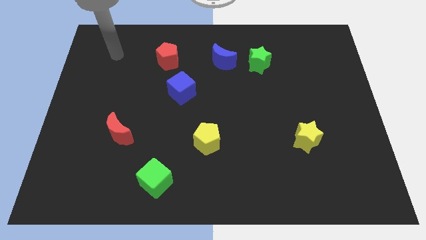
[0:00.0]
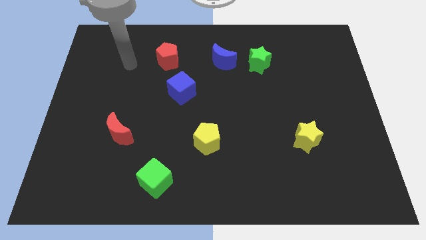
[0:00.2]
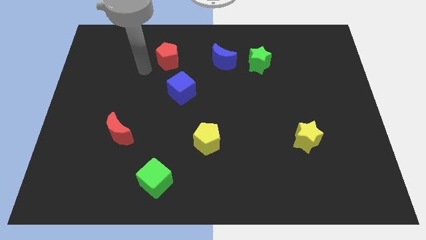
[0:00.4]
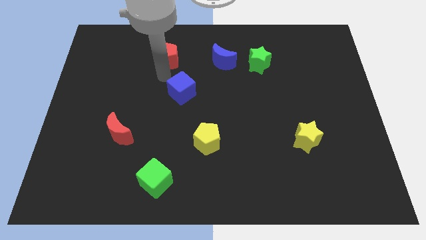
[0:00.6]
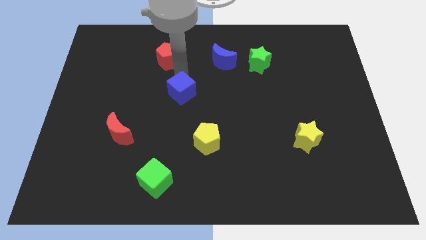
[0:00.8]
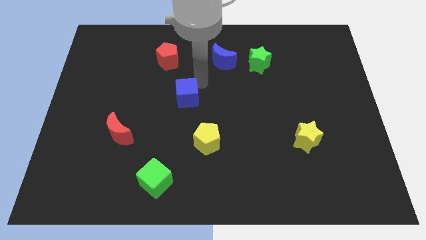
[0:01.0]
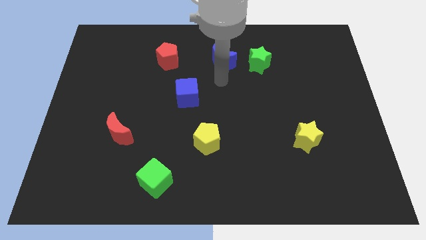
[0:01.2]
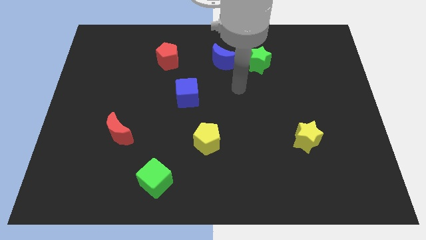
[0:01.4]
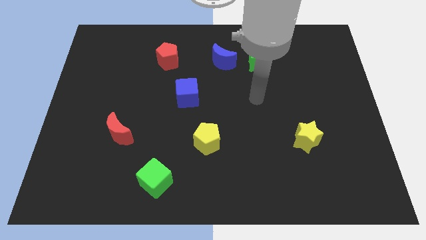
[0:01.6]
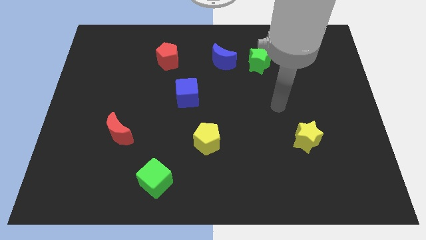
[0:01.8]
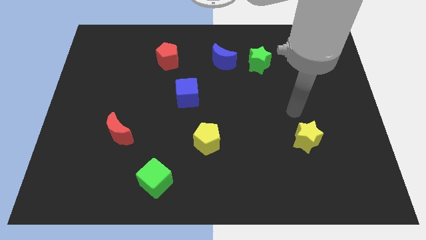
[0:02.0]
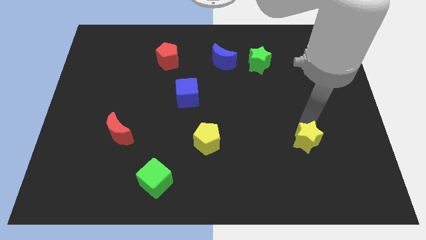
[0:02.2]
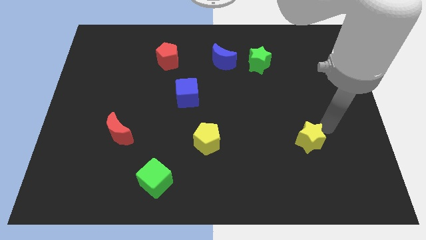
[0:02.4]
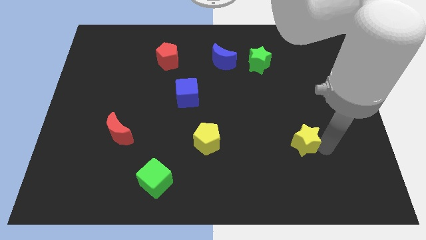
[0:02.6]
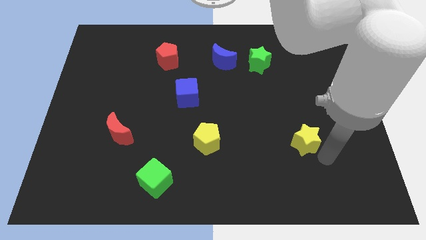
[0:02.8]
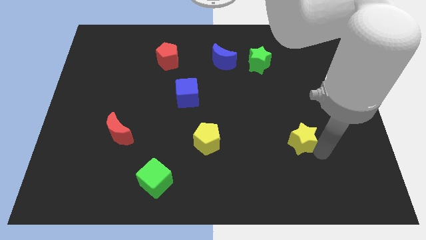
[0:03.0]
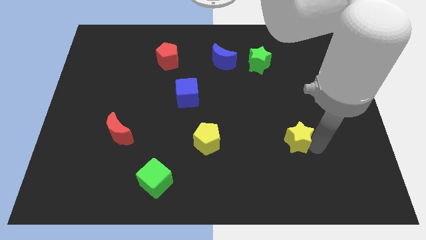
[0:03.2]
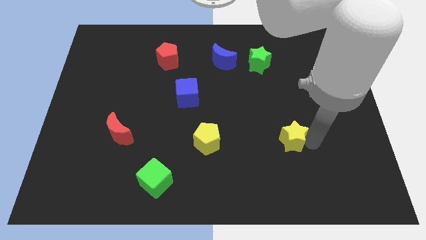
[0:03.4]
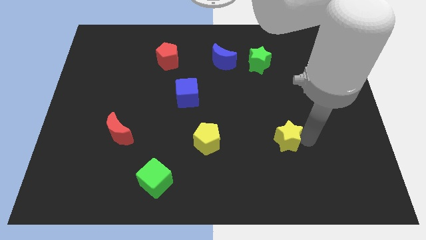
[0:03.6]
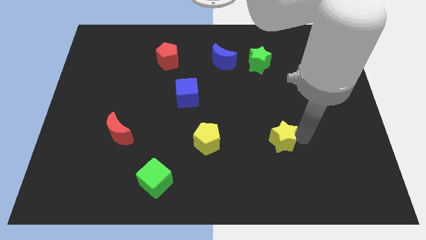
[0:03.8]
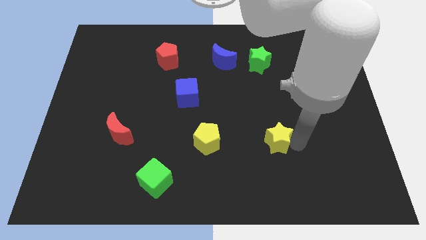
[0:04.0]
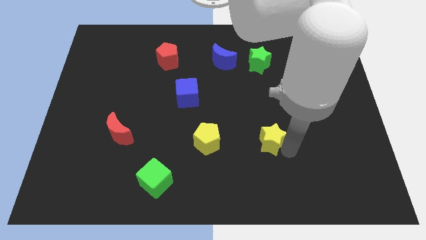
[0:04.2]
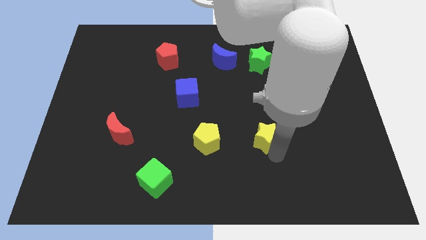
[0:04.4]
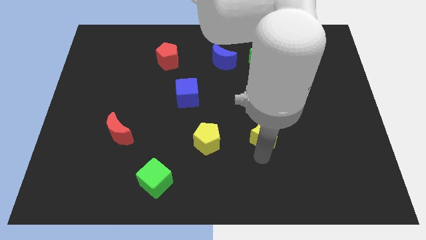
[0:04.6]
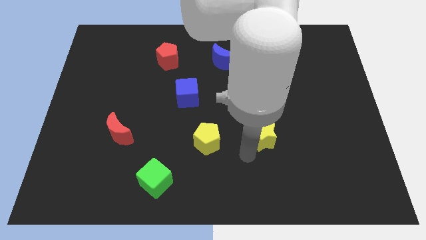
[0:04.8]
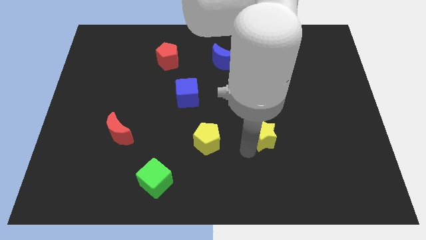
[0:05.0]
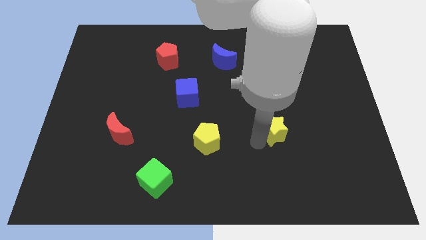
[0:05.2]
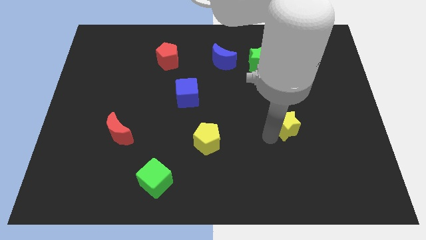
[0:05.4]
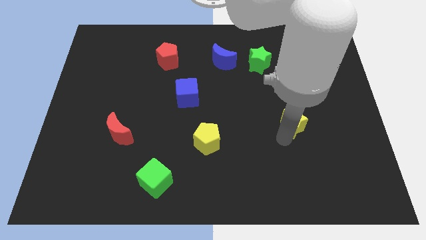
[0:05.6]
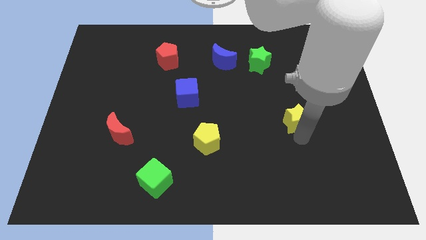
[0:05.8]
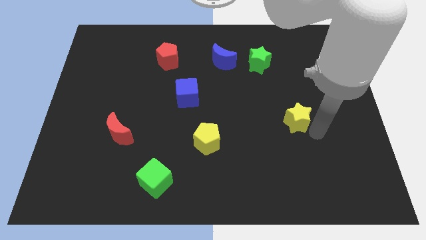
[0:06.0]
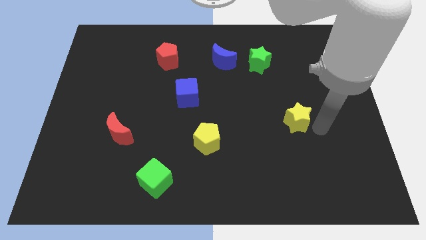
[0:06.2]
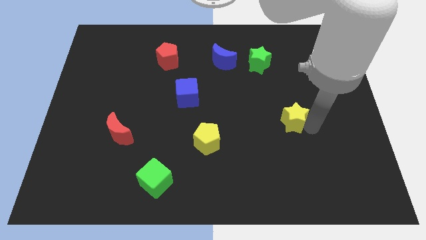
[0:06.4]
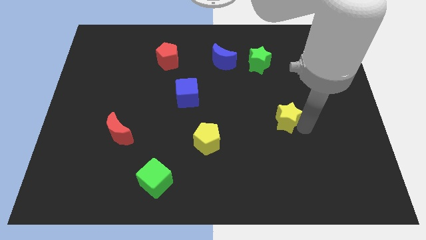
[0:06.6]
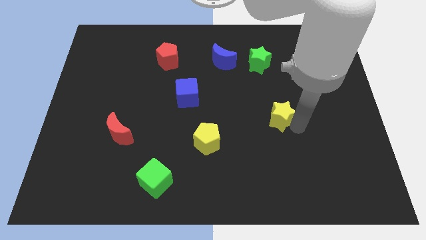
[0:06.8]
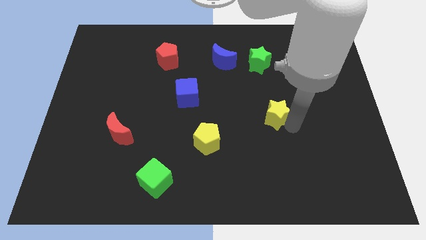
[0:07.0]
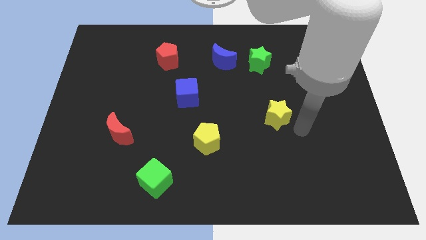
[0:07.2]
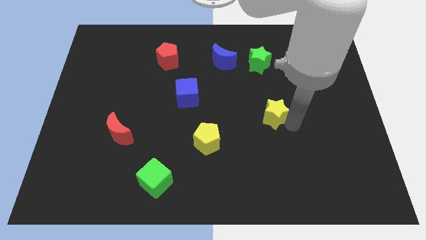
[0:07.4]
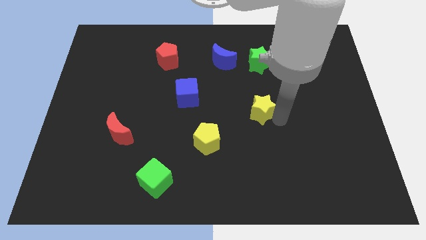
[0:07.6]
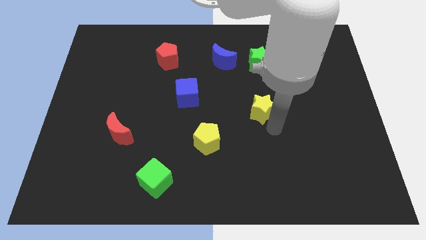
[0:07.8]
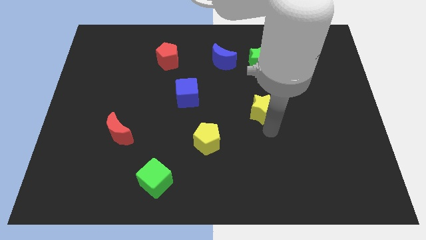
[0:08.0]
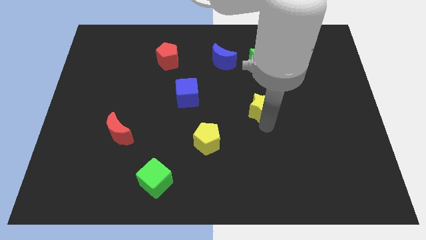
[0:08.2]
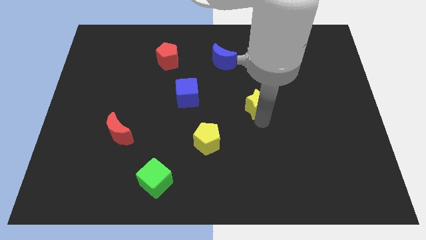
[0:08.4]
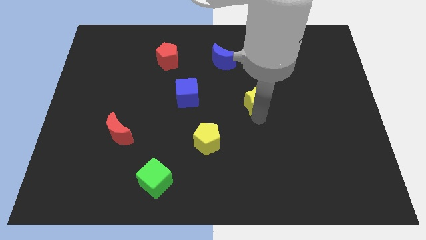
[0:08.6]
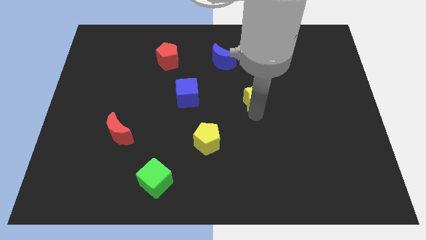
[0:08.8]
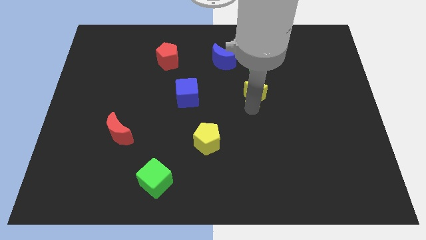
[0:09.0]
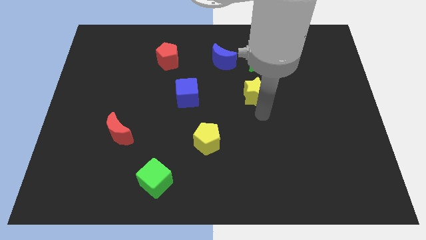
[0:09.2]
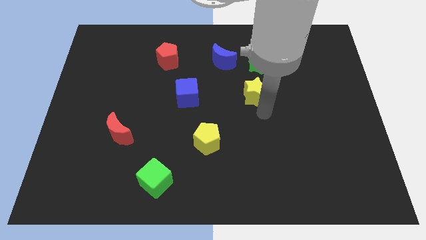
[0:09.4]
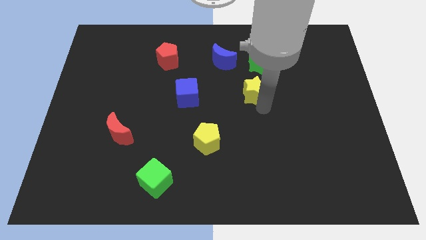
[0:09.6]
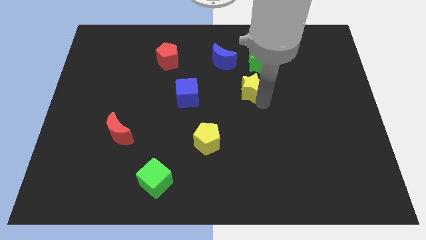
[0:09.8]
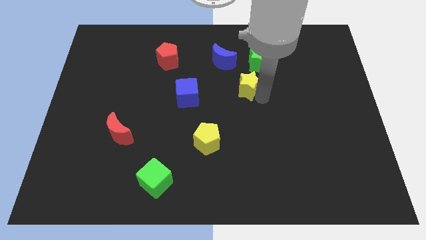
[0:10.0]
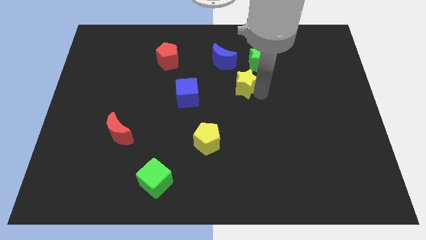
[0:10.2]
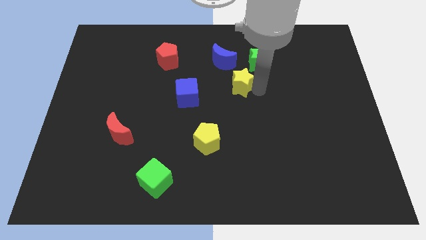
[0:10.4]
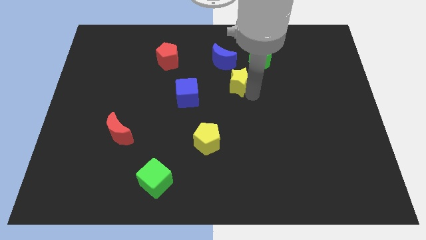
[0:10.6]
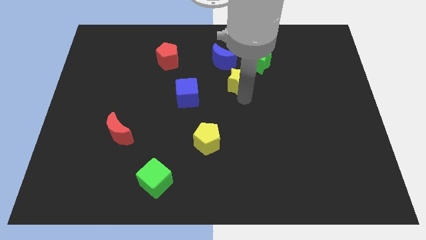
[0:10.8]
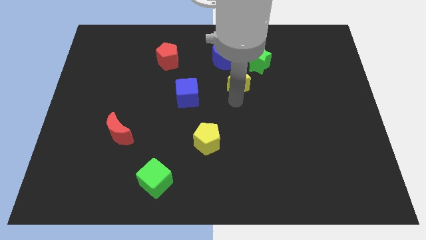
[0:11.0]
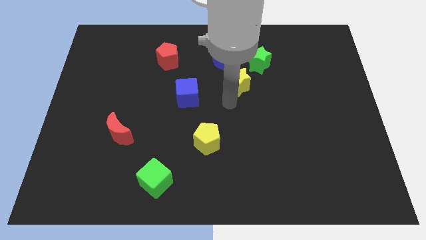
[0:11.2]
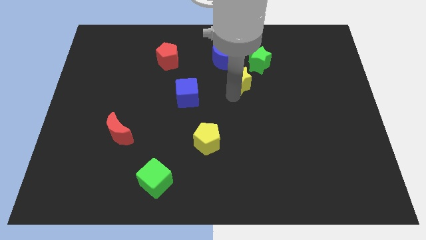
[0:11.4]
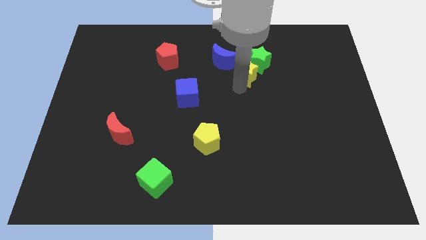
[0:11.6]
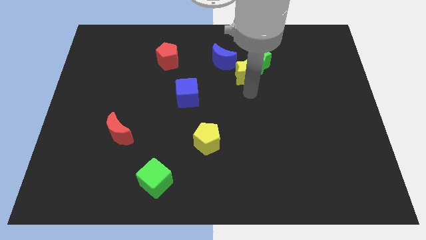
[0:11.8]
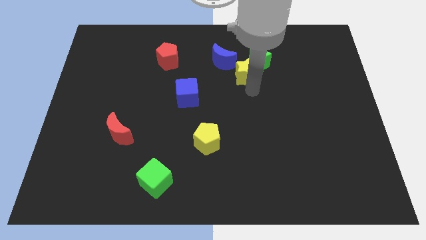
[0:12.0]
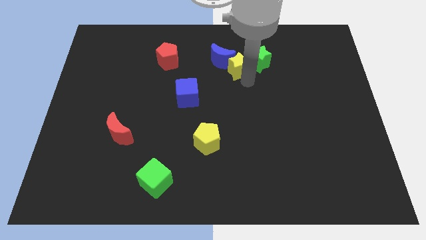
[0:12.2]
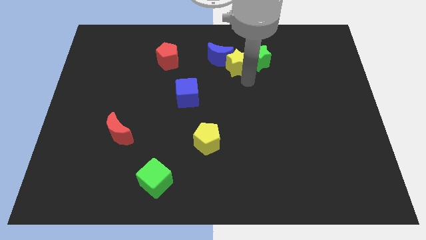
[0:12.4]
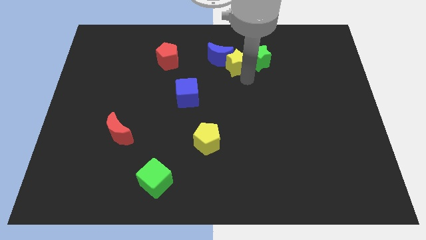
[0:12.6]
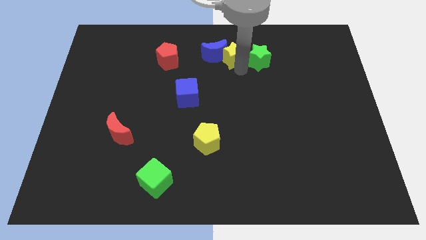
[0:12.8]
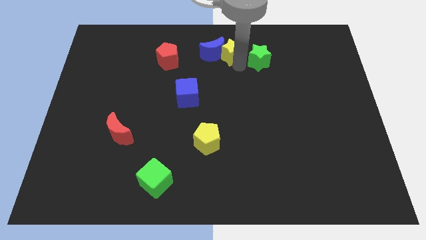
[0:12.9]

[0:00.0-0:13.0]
move the yellow star to the top
